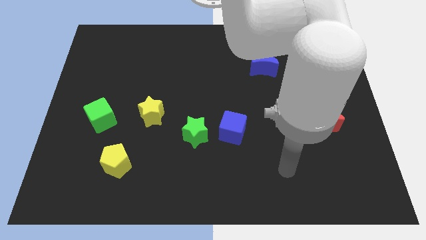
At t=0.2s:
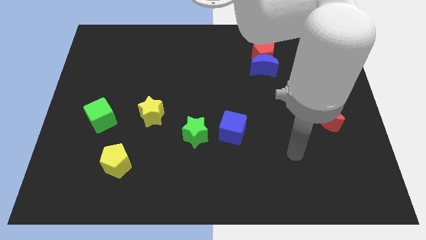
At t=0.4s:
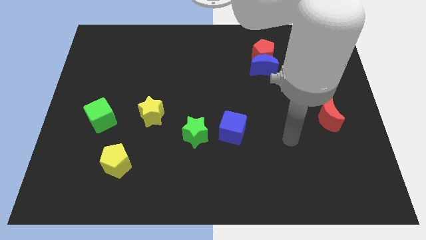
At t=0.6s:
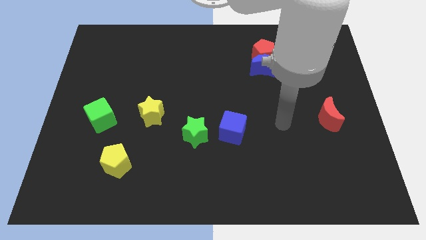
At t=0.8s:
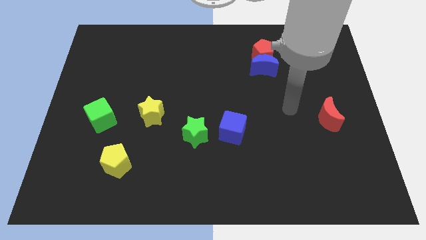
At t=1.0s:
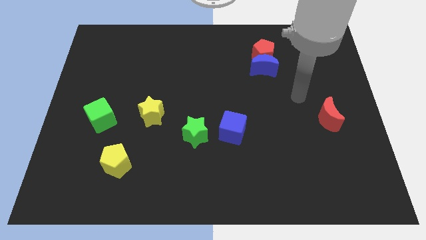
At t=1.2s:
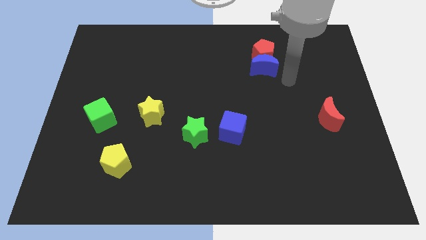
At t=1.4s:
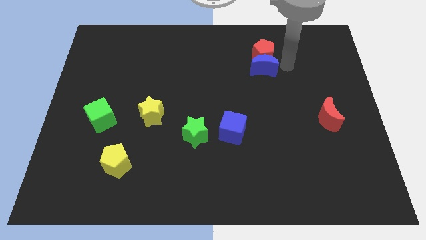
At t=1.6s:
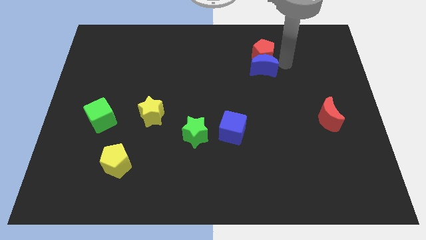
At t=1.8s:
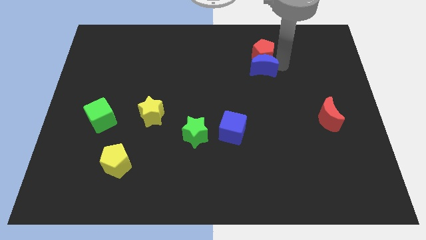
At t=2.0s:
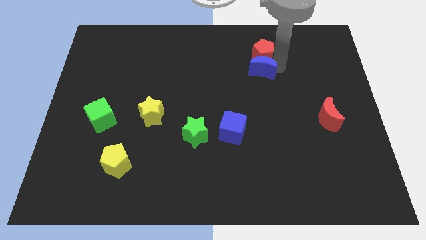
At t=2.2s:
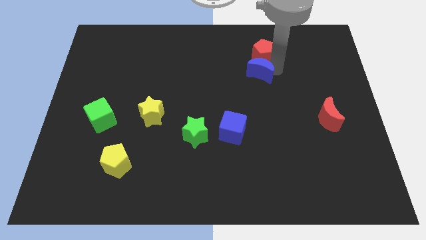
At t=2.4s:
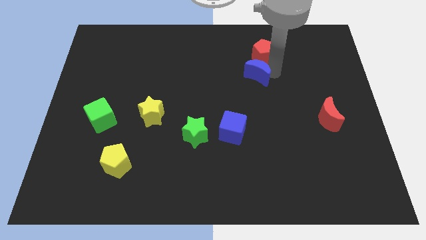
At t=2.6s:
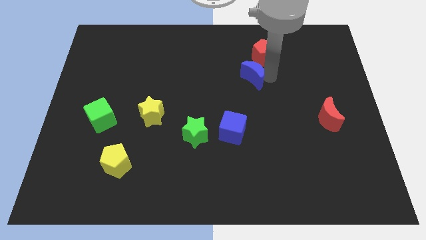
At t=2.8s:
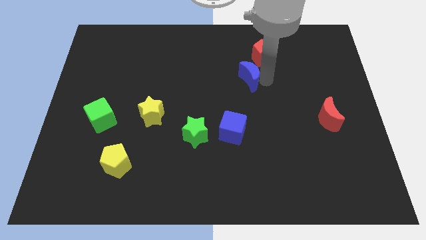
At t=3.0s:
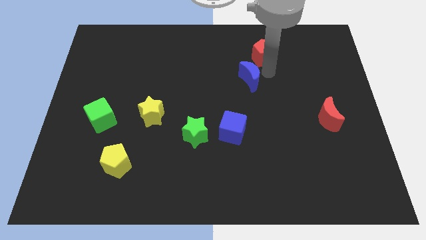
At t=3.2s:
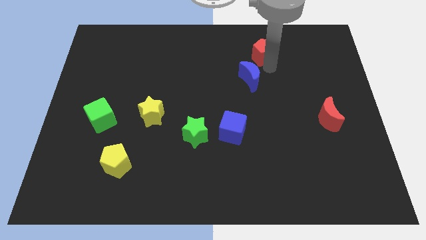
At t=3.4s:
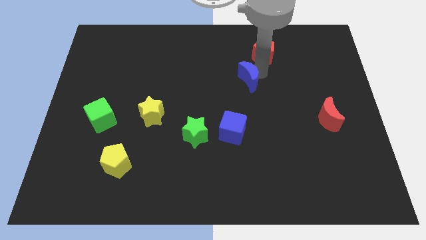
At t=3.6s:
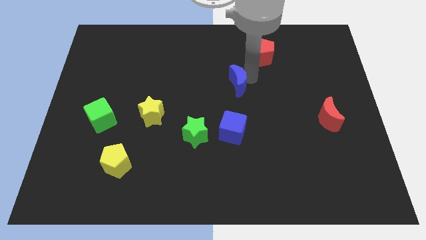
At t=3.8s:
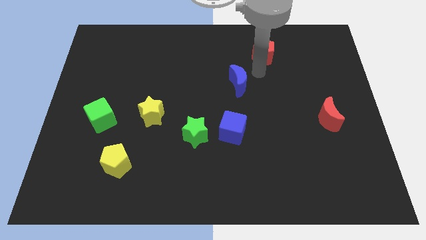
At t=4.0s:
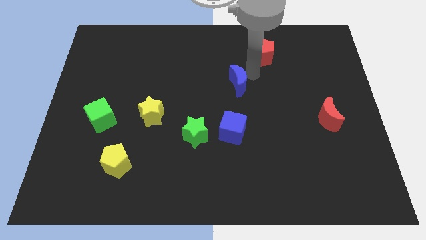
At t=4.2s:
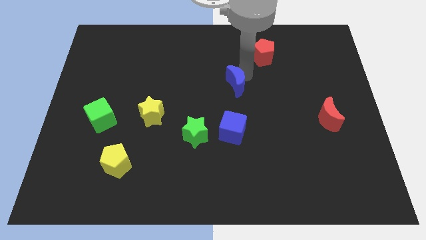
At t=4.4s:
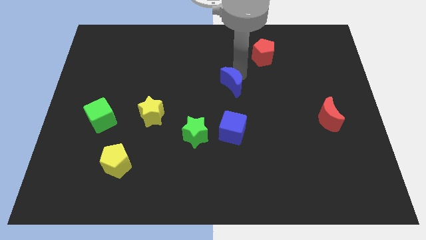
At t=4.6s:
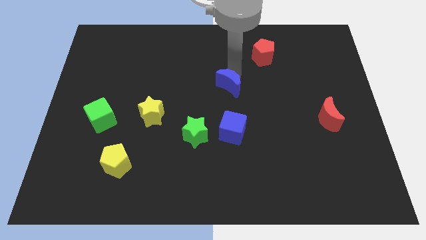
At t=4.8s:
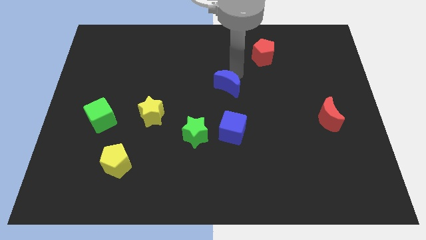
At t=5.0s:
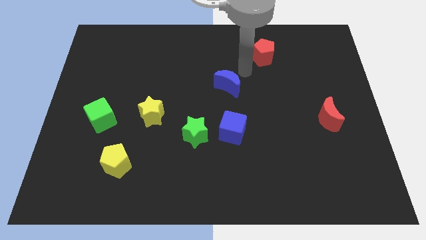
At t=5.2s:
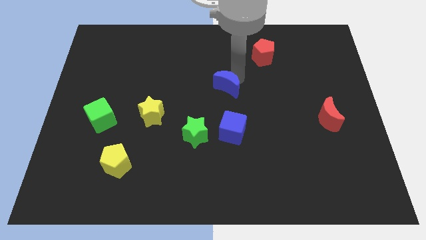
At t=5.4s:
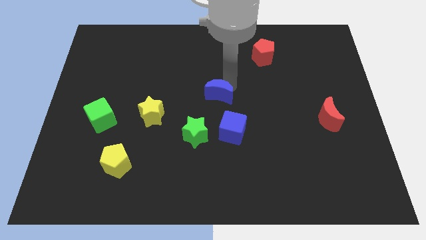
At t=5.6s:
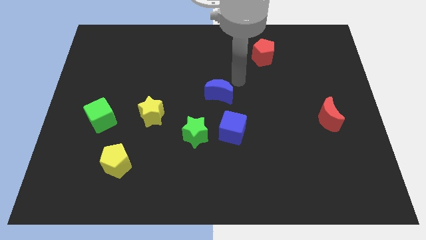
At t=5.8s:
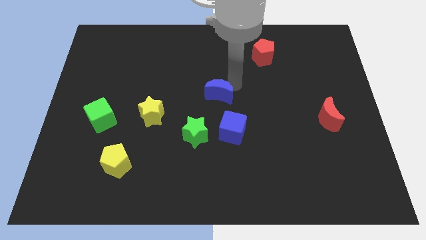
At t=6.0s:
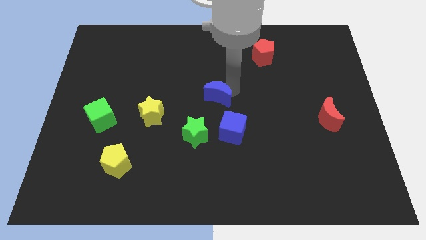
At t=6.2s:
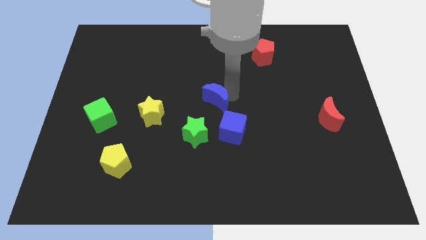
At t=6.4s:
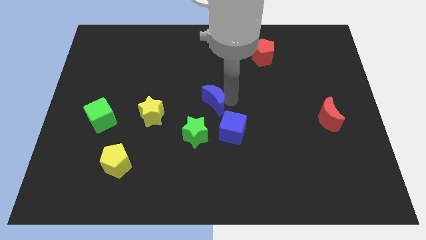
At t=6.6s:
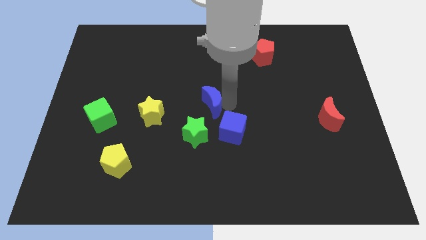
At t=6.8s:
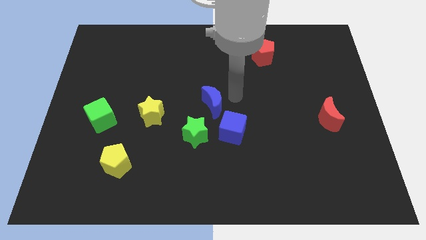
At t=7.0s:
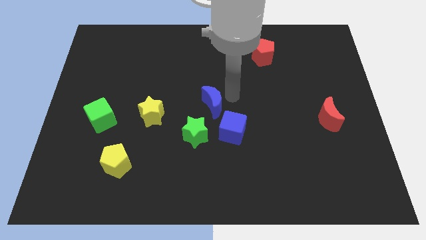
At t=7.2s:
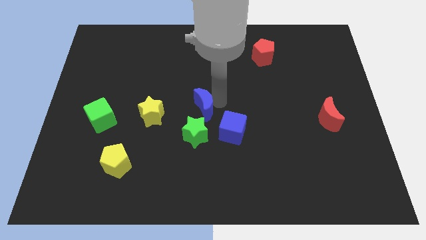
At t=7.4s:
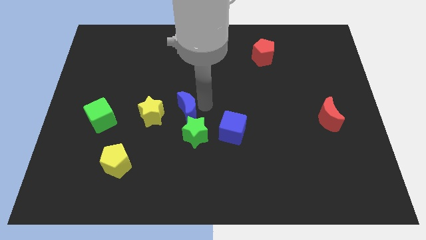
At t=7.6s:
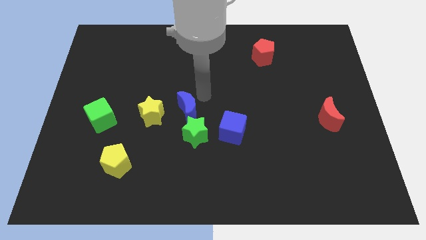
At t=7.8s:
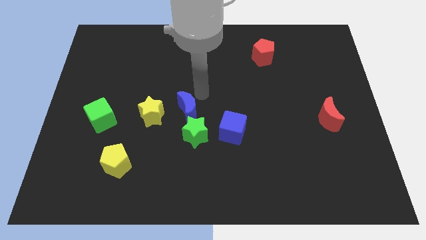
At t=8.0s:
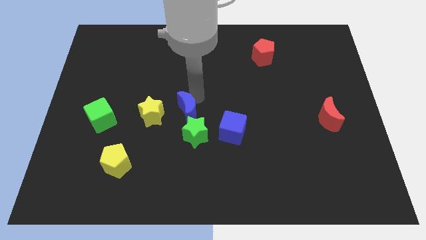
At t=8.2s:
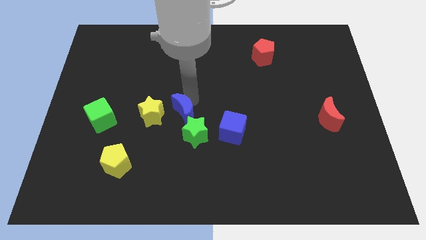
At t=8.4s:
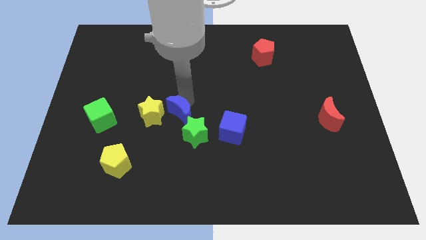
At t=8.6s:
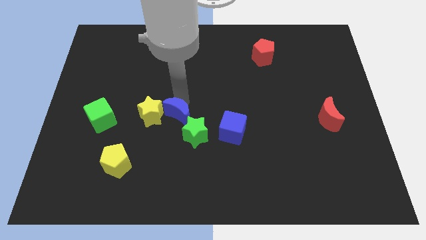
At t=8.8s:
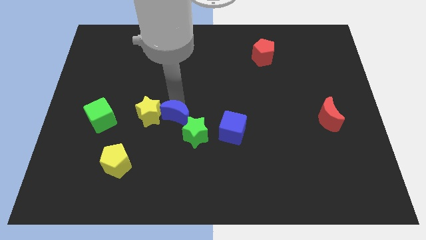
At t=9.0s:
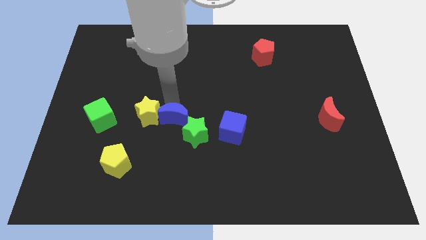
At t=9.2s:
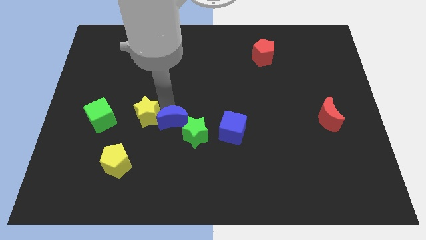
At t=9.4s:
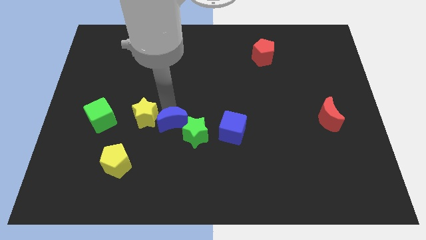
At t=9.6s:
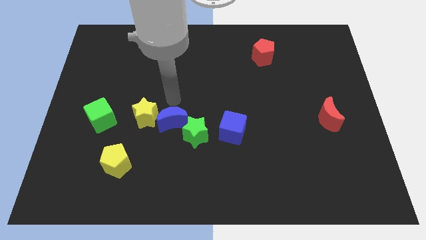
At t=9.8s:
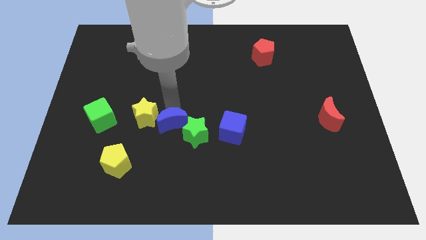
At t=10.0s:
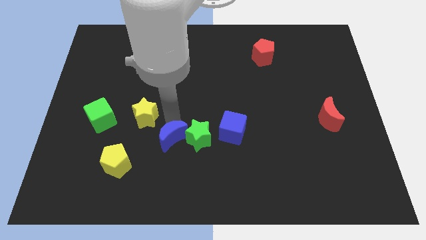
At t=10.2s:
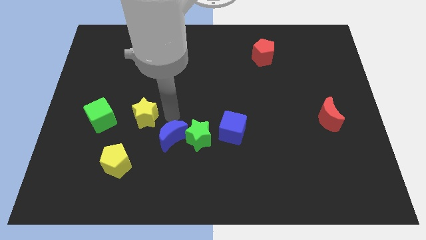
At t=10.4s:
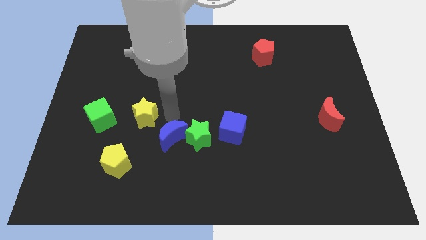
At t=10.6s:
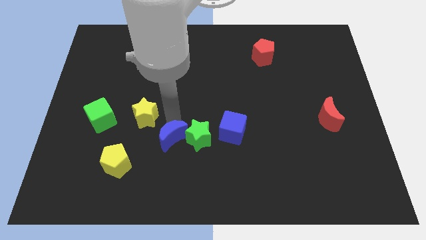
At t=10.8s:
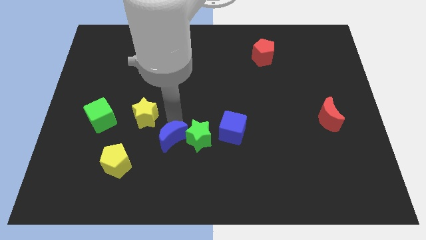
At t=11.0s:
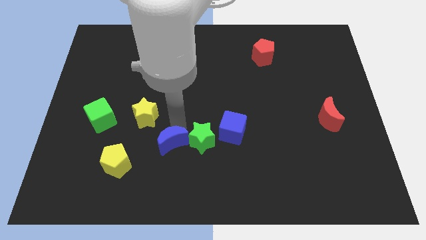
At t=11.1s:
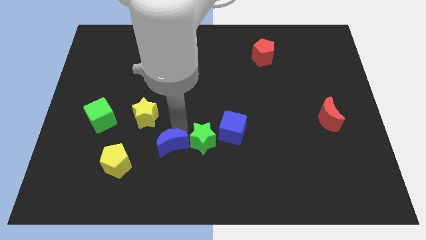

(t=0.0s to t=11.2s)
push the blue moon to the right of the yellow pentagon

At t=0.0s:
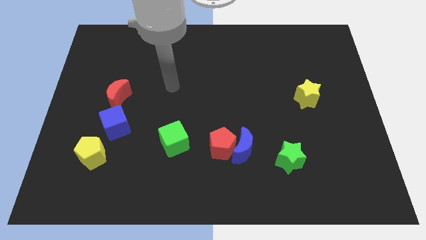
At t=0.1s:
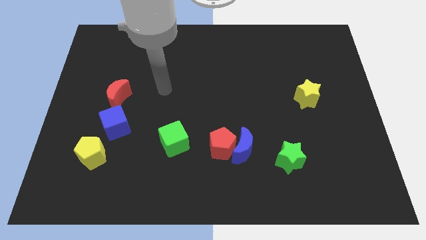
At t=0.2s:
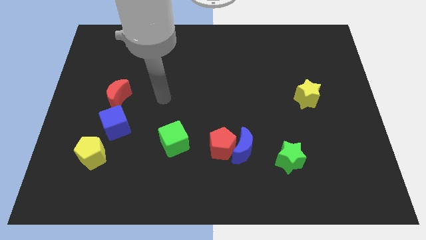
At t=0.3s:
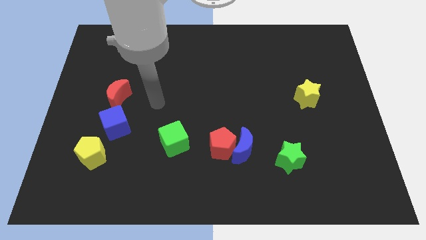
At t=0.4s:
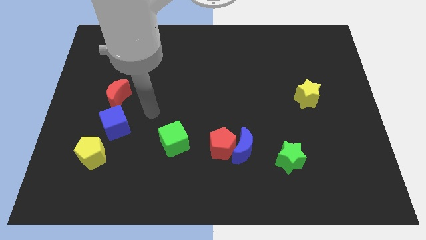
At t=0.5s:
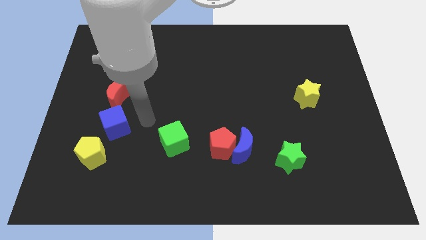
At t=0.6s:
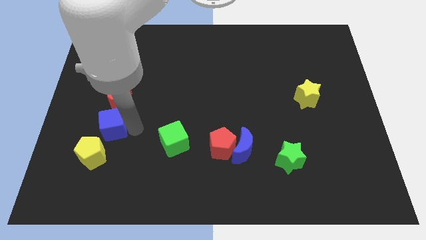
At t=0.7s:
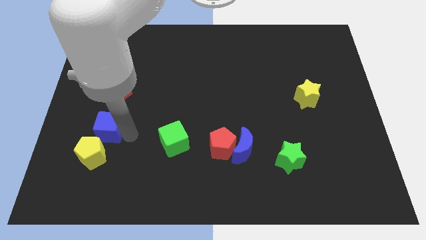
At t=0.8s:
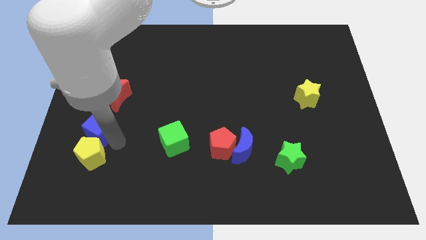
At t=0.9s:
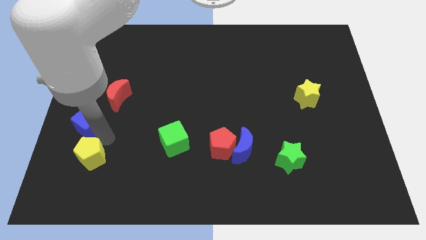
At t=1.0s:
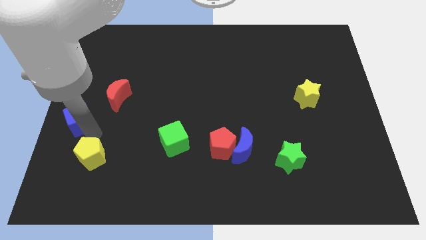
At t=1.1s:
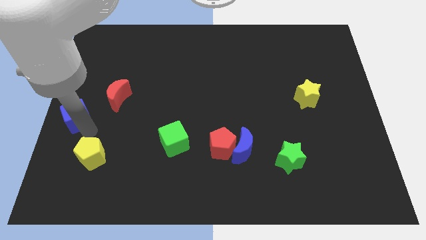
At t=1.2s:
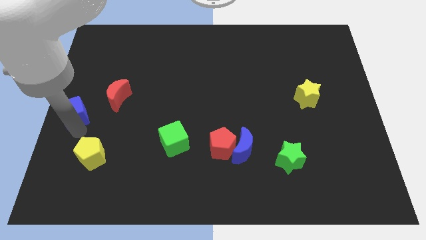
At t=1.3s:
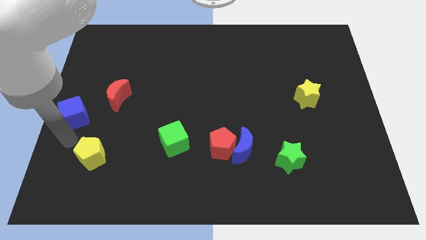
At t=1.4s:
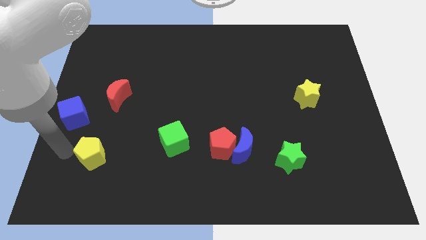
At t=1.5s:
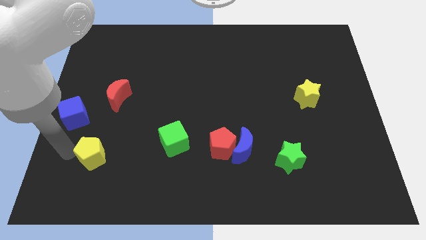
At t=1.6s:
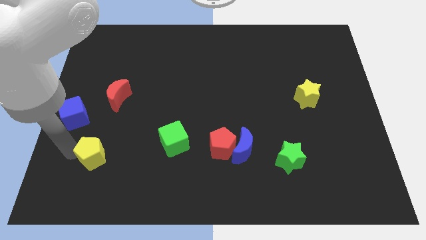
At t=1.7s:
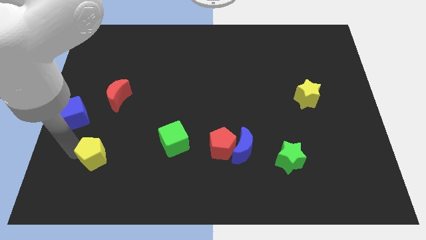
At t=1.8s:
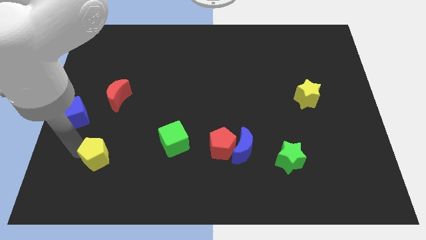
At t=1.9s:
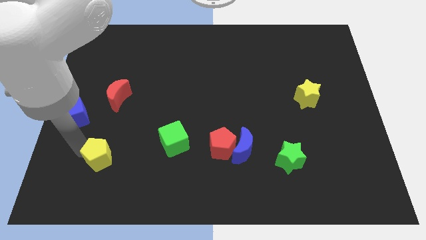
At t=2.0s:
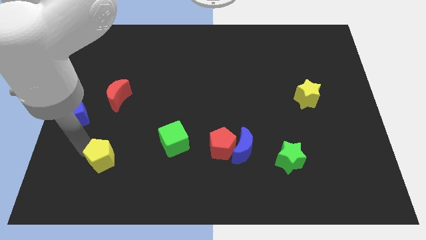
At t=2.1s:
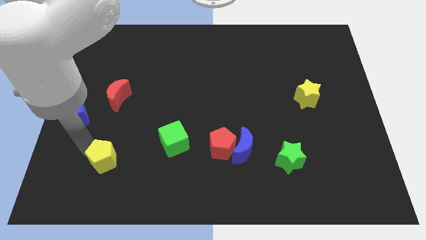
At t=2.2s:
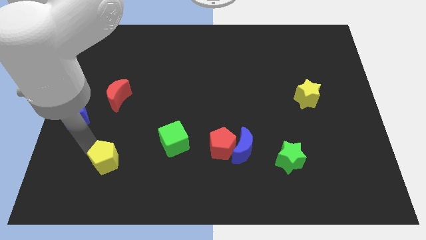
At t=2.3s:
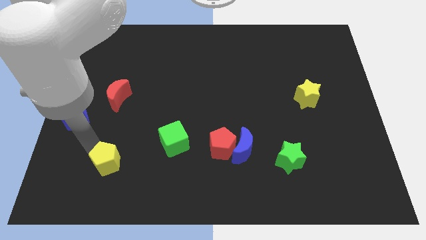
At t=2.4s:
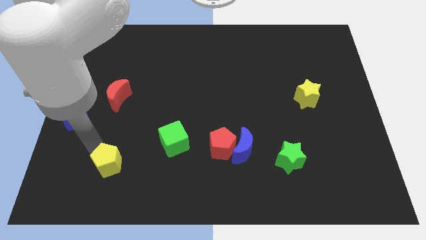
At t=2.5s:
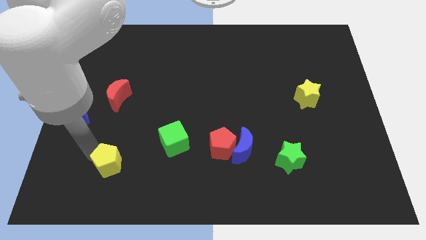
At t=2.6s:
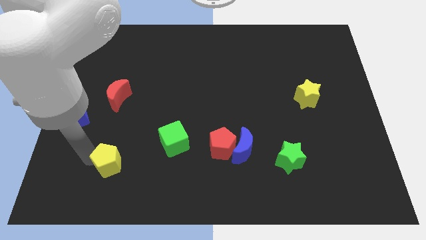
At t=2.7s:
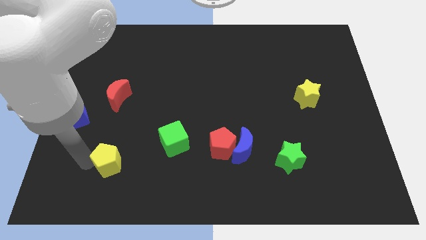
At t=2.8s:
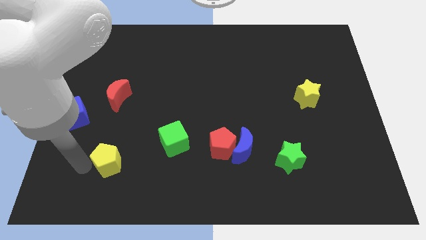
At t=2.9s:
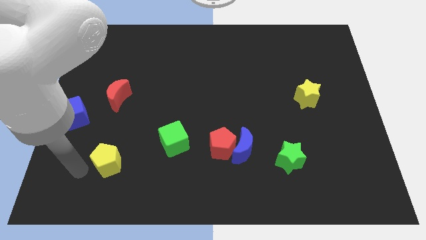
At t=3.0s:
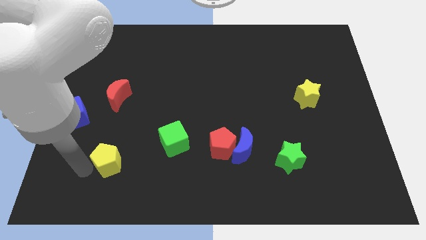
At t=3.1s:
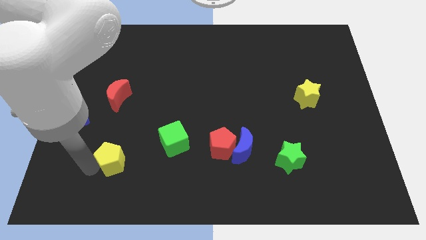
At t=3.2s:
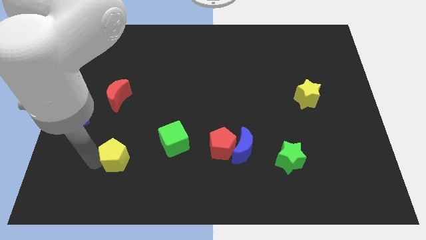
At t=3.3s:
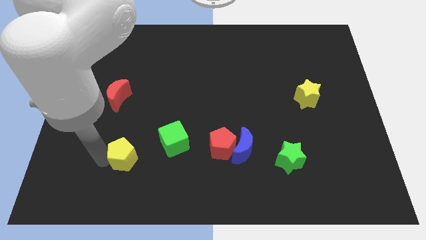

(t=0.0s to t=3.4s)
slide the yellow pentagon to the bottom left side of the green cube
